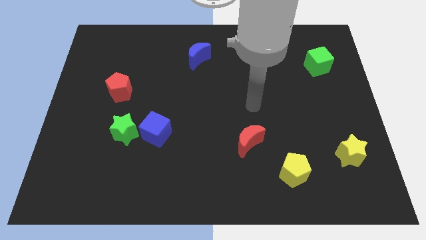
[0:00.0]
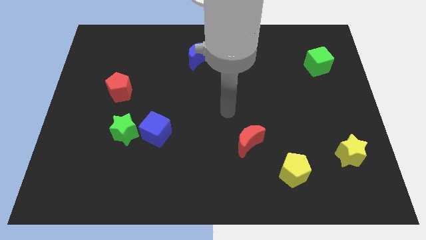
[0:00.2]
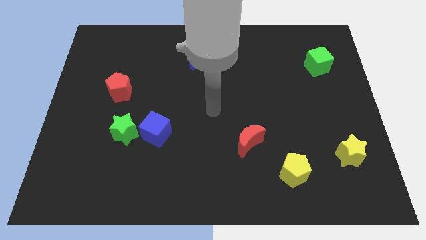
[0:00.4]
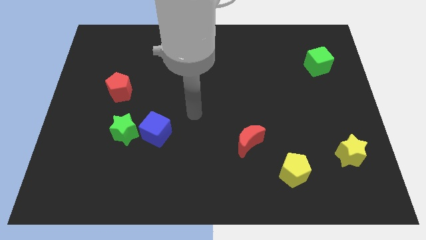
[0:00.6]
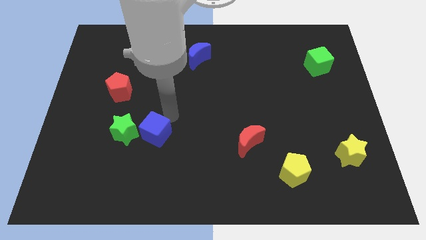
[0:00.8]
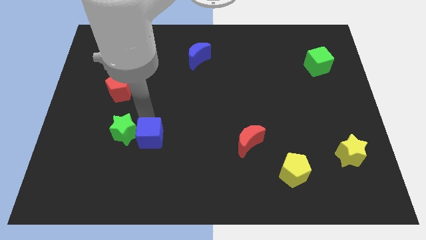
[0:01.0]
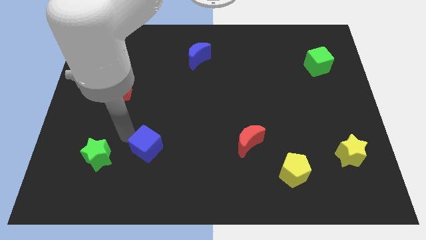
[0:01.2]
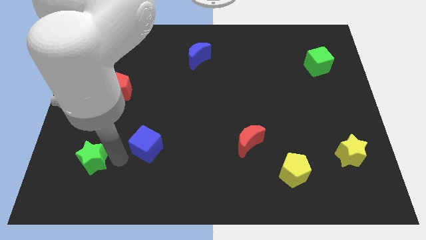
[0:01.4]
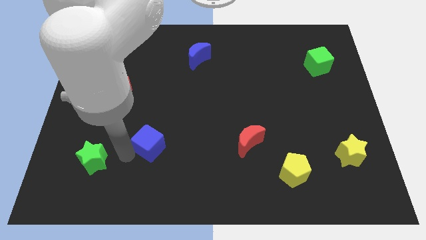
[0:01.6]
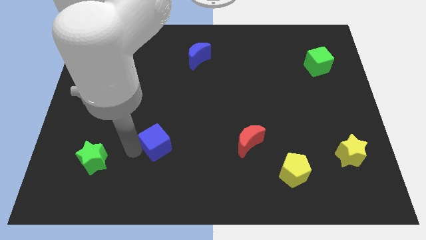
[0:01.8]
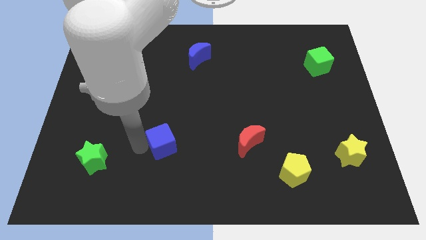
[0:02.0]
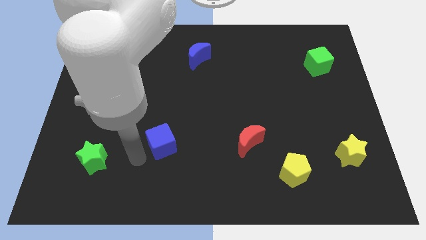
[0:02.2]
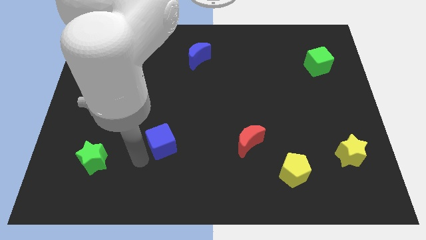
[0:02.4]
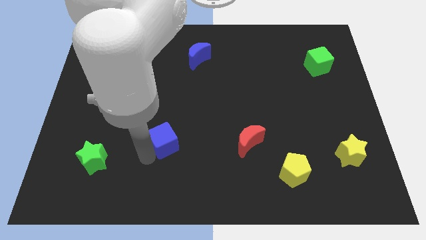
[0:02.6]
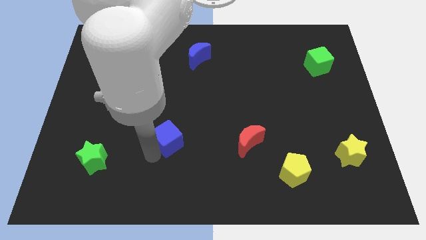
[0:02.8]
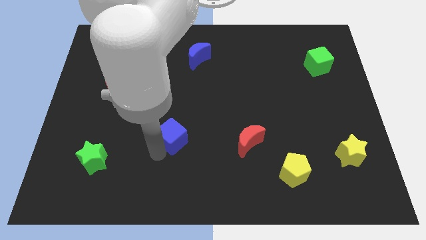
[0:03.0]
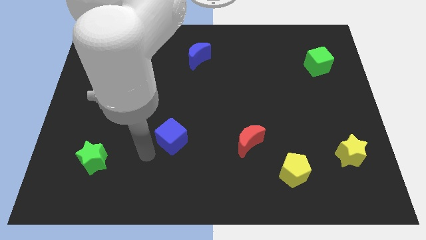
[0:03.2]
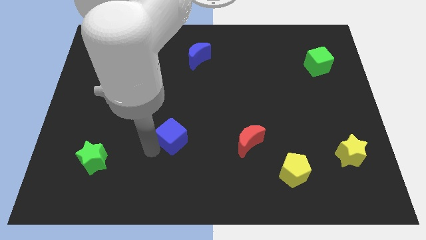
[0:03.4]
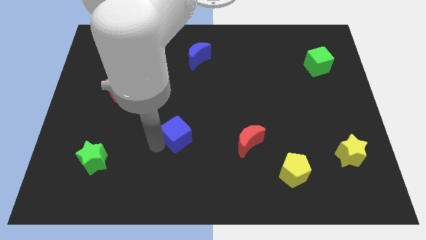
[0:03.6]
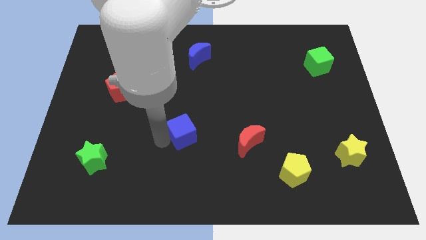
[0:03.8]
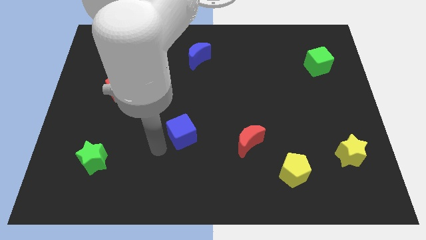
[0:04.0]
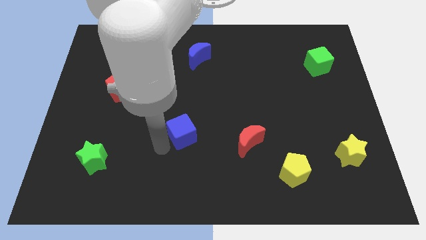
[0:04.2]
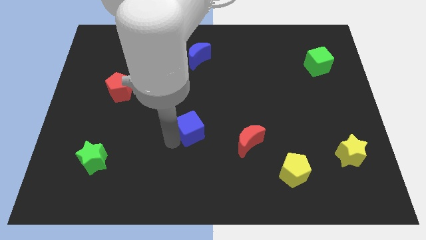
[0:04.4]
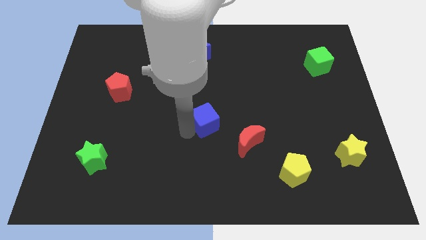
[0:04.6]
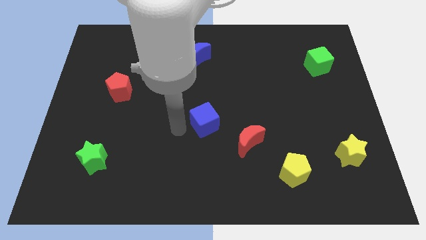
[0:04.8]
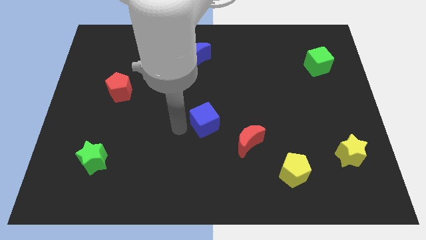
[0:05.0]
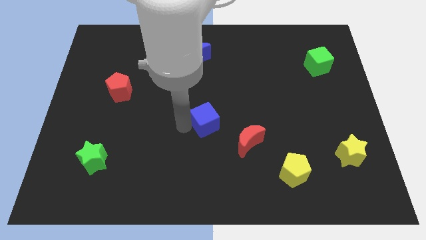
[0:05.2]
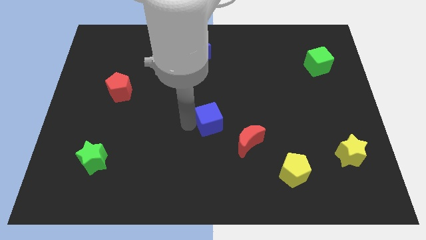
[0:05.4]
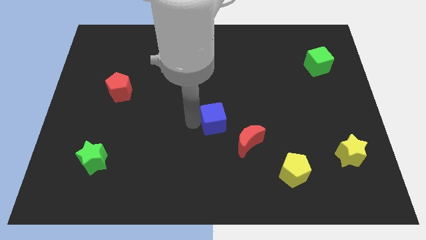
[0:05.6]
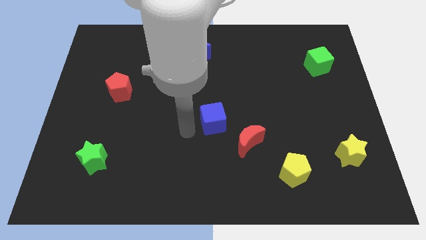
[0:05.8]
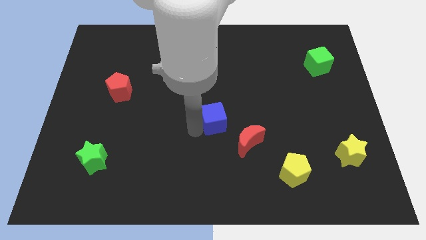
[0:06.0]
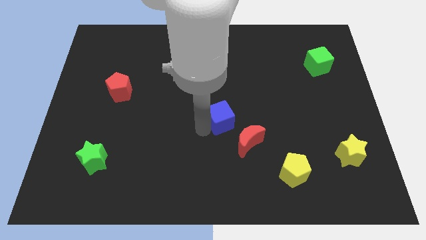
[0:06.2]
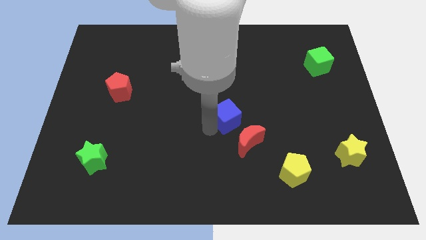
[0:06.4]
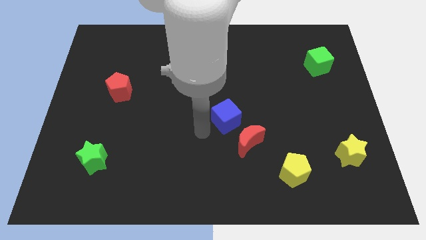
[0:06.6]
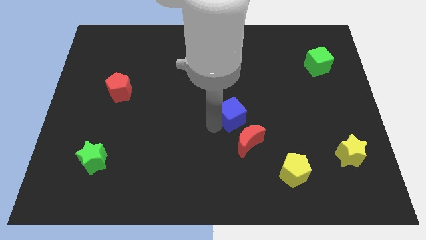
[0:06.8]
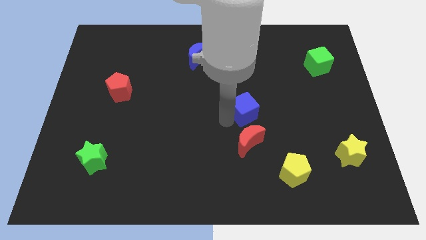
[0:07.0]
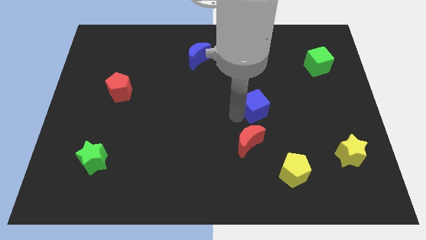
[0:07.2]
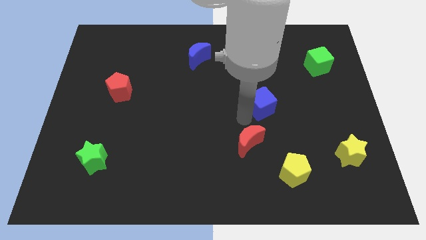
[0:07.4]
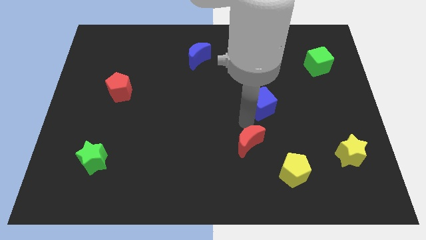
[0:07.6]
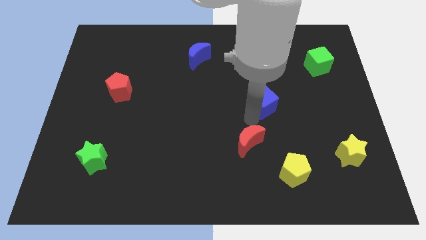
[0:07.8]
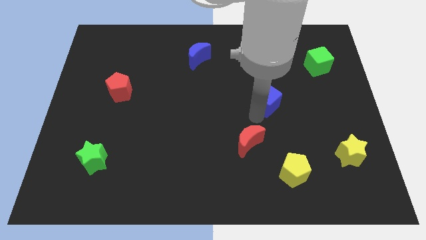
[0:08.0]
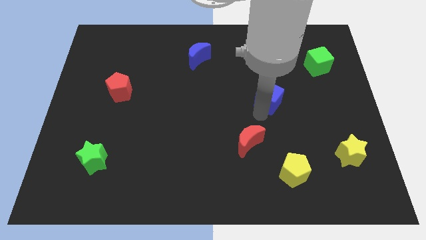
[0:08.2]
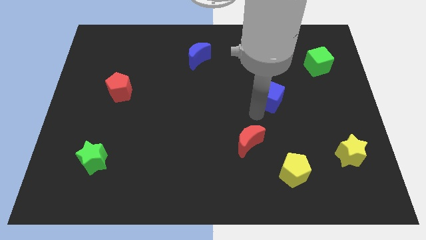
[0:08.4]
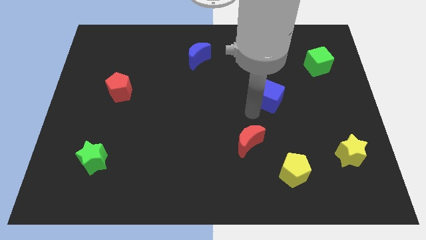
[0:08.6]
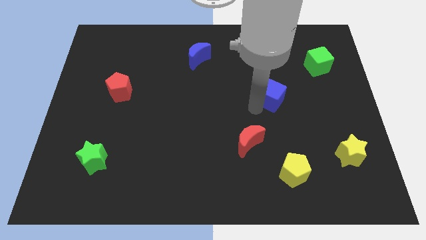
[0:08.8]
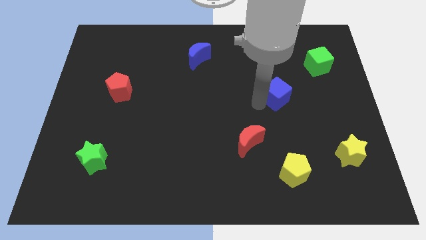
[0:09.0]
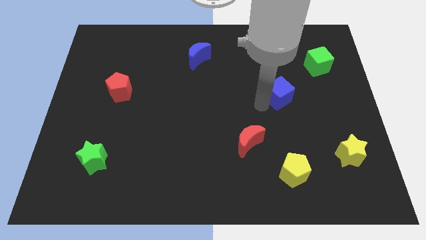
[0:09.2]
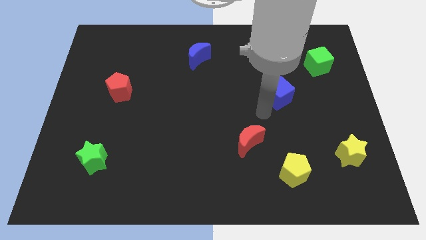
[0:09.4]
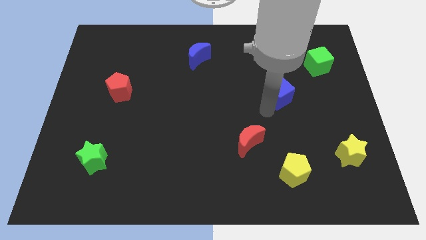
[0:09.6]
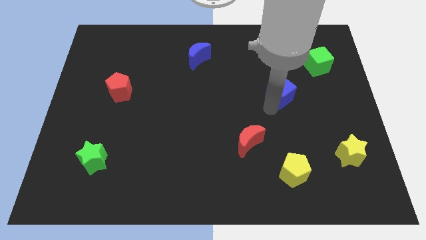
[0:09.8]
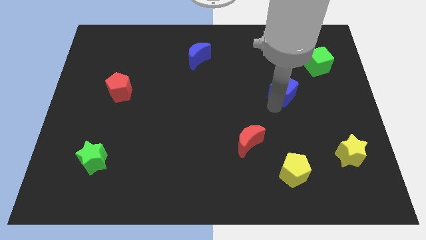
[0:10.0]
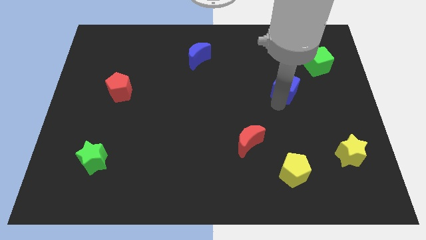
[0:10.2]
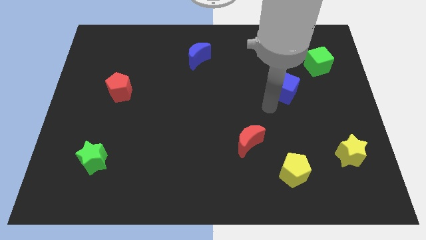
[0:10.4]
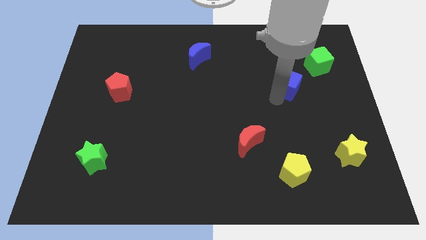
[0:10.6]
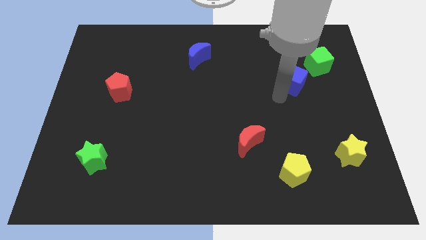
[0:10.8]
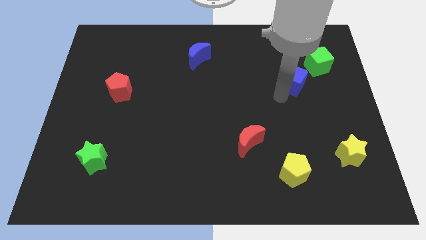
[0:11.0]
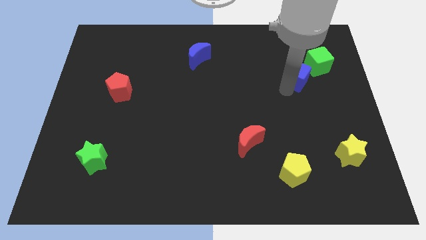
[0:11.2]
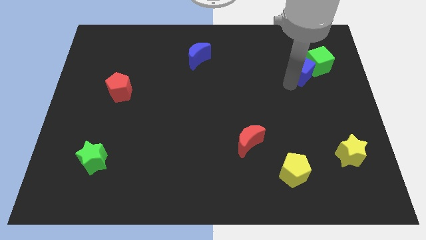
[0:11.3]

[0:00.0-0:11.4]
push the blue cube close to the green cube

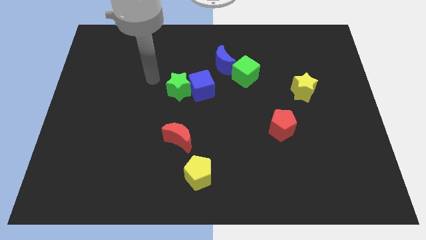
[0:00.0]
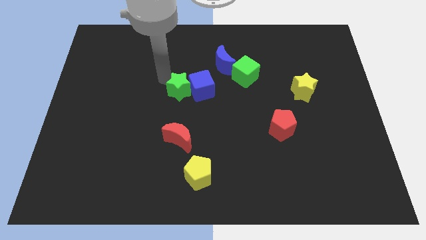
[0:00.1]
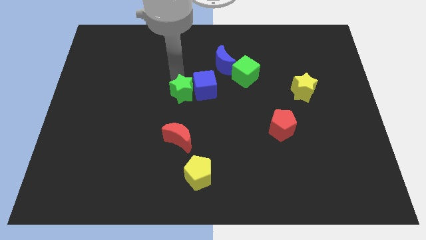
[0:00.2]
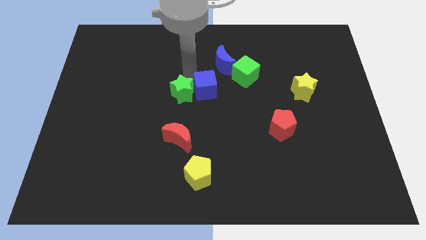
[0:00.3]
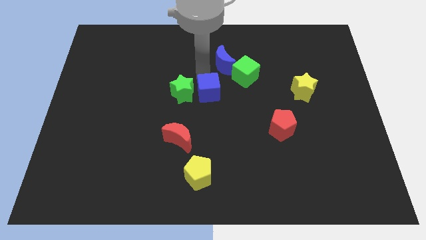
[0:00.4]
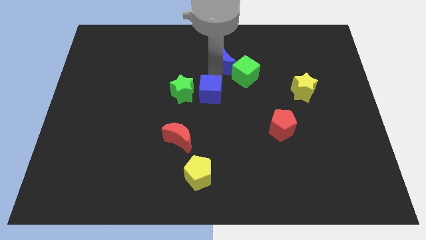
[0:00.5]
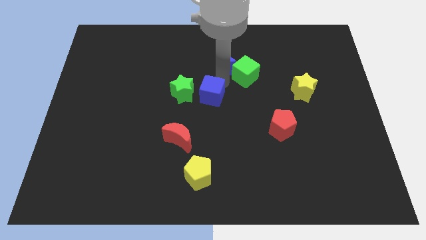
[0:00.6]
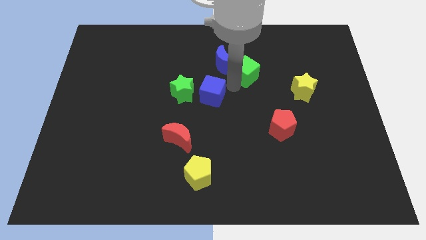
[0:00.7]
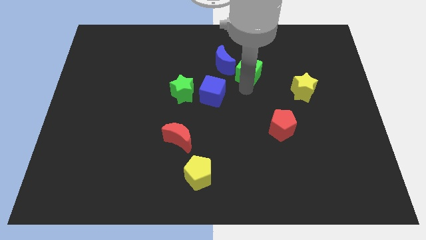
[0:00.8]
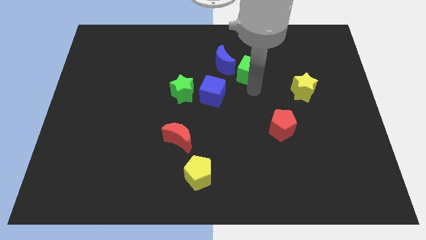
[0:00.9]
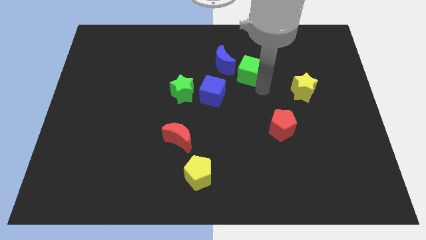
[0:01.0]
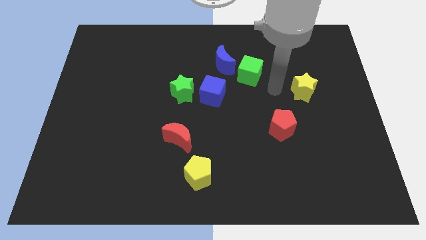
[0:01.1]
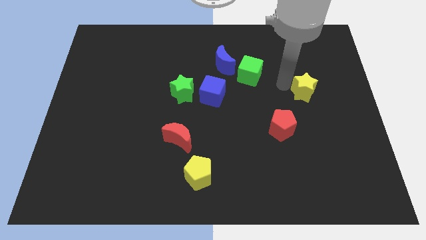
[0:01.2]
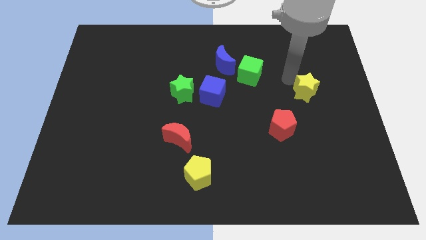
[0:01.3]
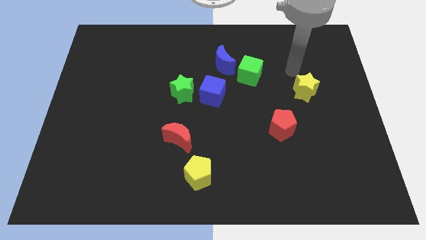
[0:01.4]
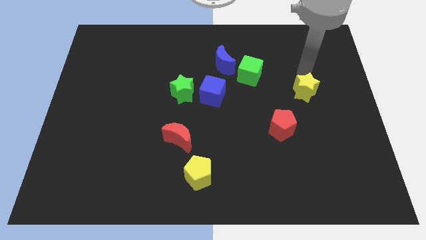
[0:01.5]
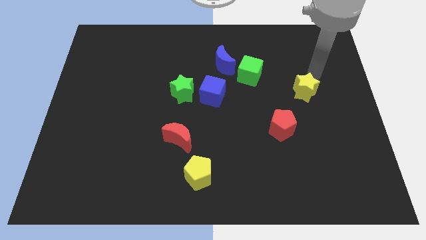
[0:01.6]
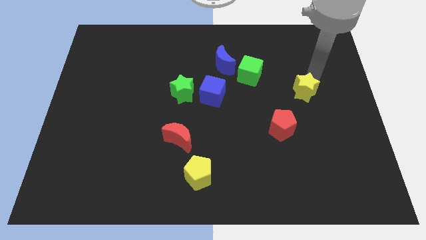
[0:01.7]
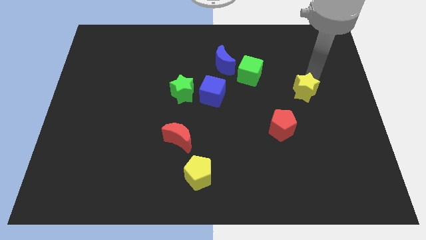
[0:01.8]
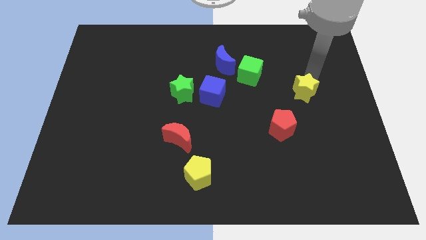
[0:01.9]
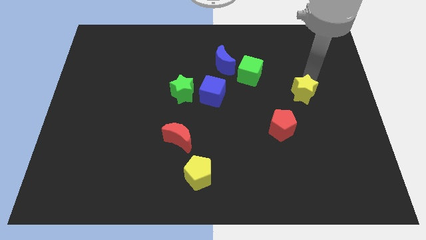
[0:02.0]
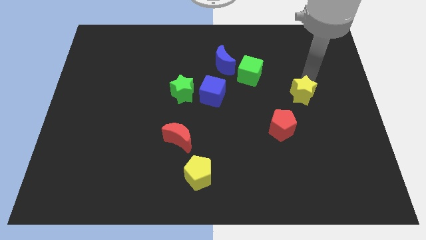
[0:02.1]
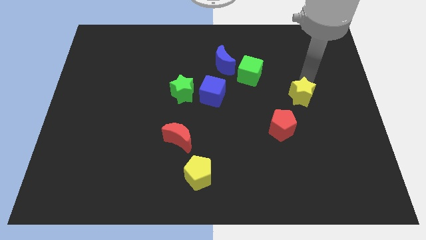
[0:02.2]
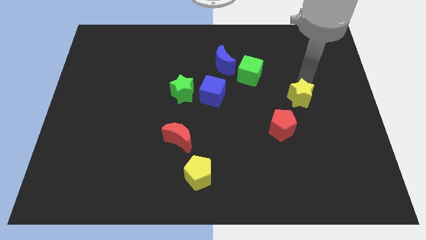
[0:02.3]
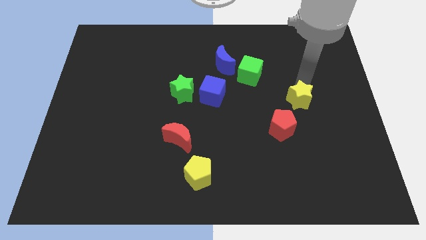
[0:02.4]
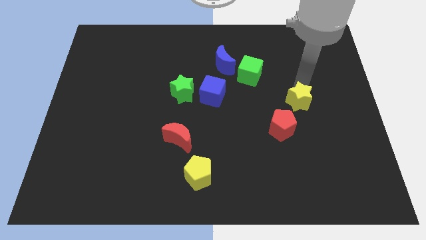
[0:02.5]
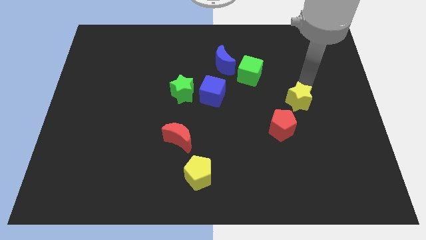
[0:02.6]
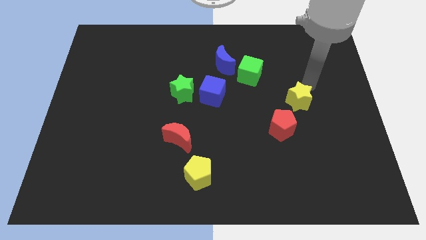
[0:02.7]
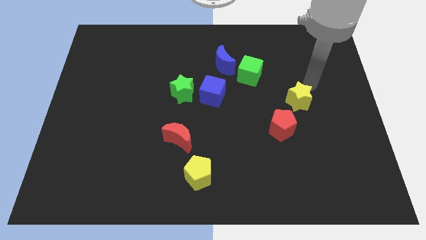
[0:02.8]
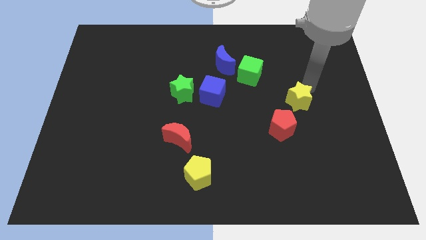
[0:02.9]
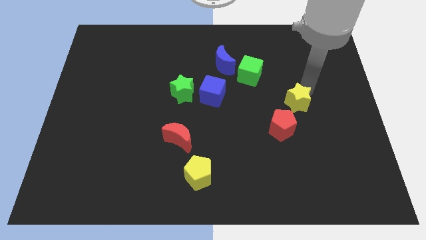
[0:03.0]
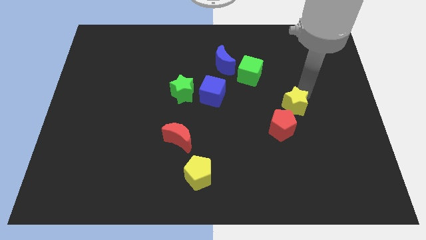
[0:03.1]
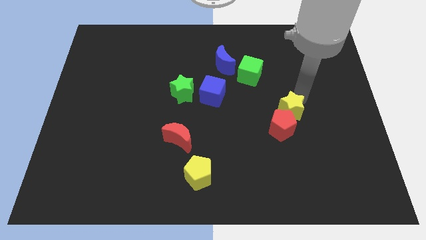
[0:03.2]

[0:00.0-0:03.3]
put the yellow star to the red pentagon
